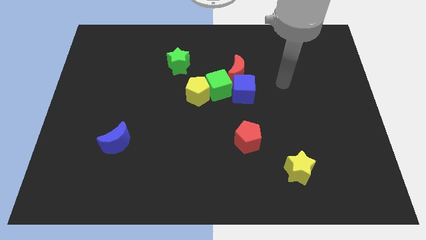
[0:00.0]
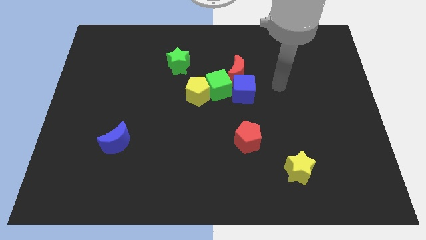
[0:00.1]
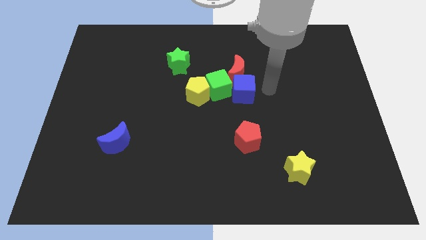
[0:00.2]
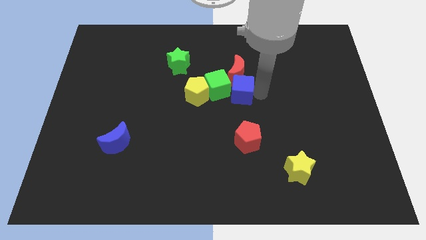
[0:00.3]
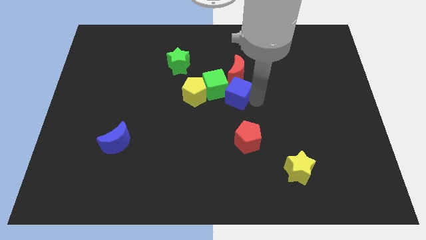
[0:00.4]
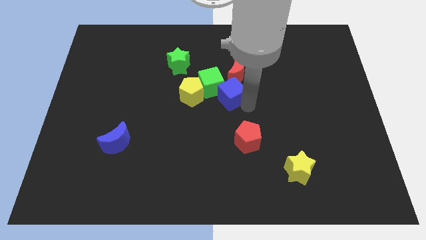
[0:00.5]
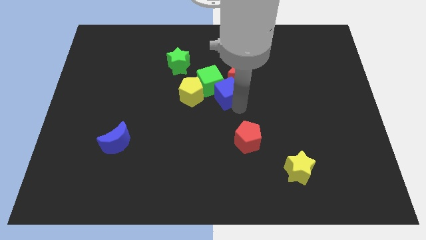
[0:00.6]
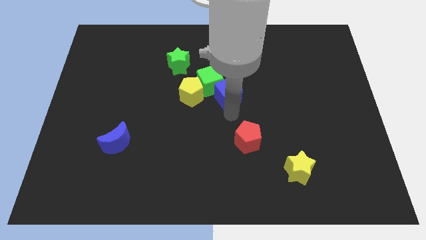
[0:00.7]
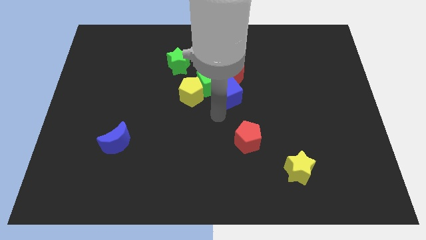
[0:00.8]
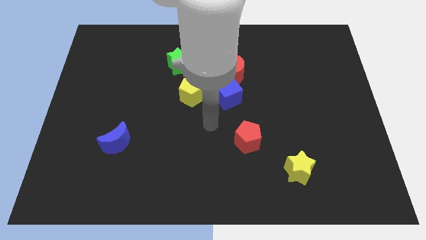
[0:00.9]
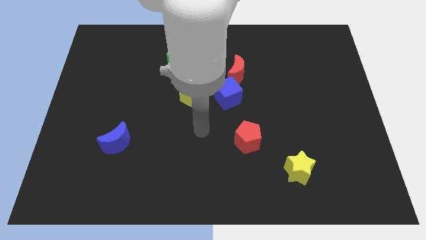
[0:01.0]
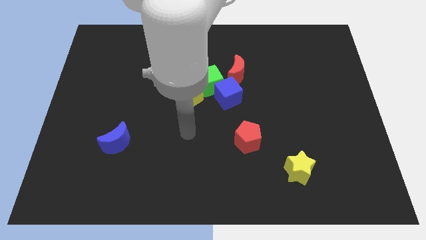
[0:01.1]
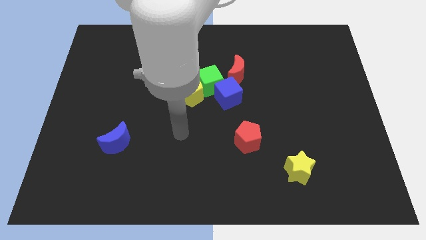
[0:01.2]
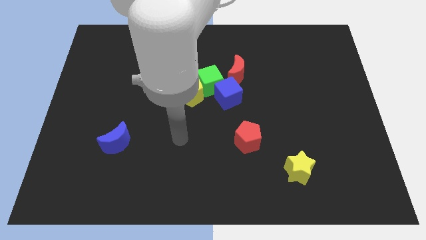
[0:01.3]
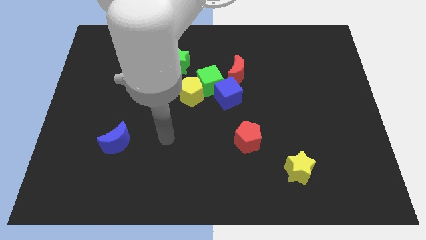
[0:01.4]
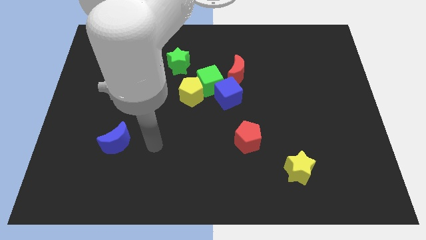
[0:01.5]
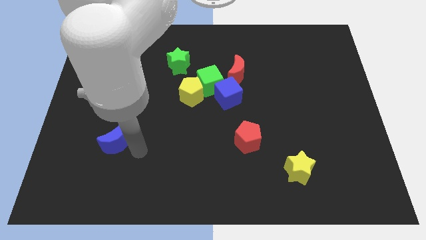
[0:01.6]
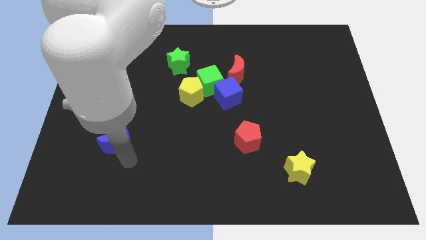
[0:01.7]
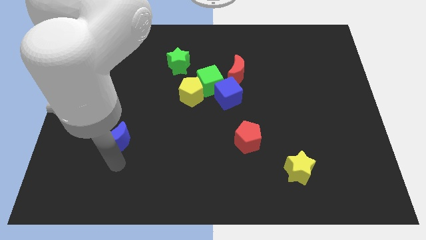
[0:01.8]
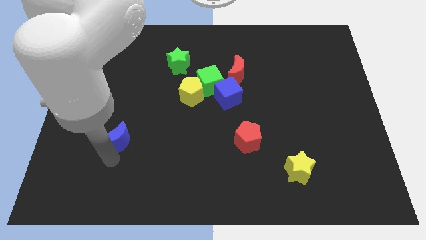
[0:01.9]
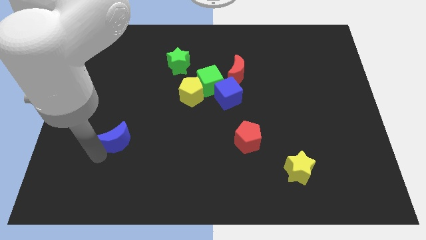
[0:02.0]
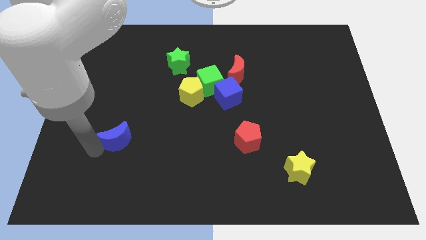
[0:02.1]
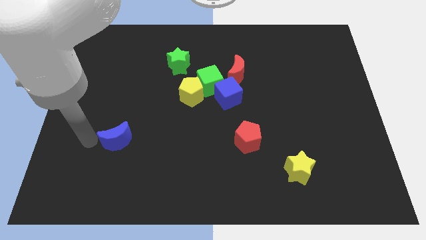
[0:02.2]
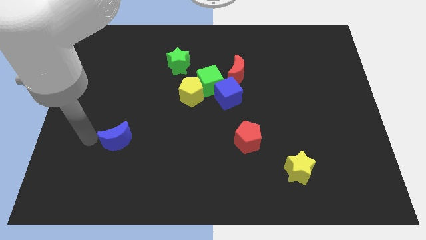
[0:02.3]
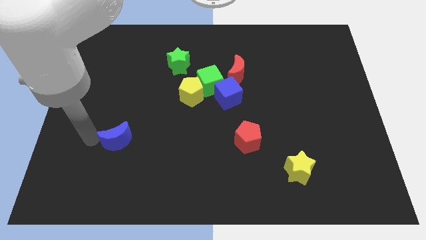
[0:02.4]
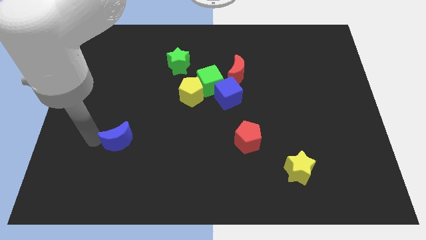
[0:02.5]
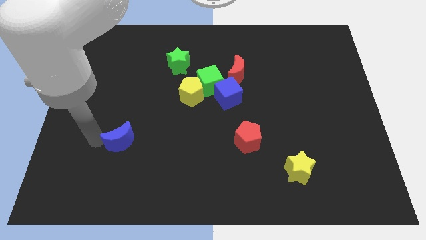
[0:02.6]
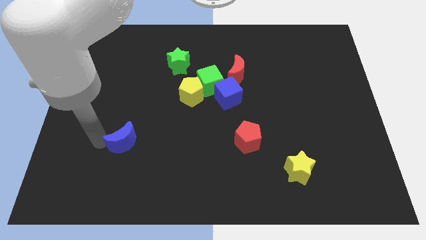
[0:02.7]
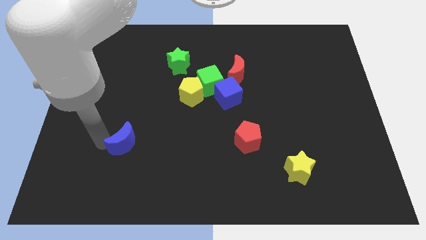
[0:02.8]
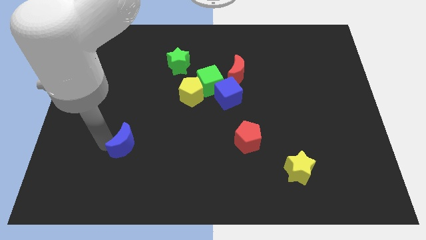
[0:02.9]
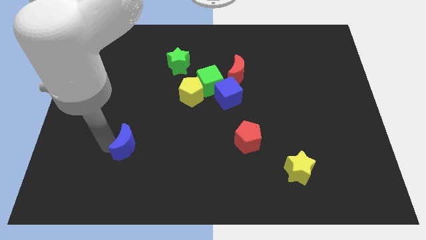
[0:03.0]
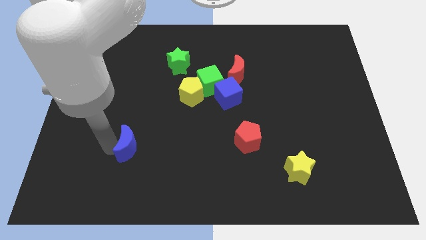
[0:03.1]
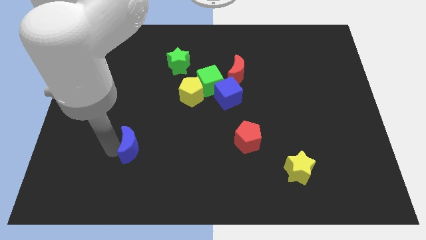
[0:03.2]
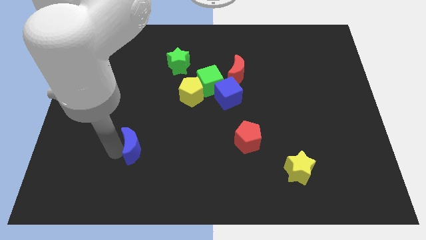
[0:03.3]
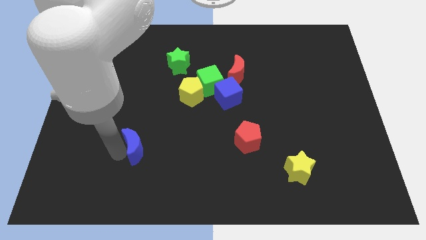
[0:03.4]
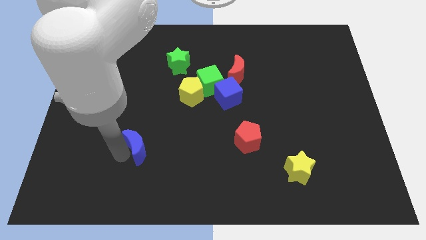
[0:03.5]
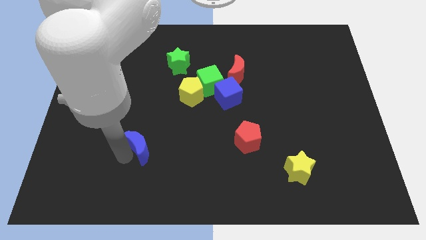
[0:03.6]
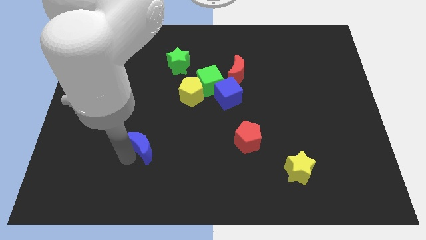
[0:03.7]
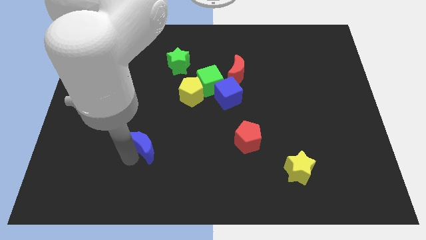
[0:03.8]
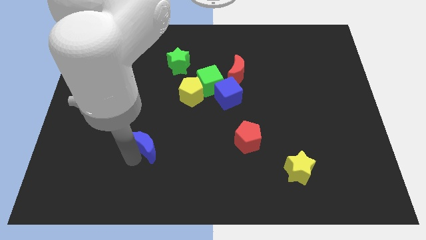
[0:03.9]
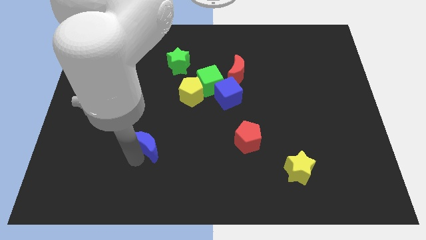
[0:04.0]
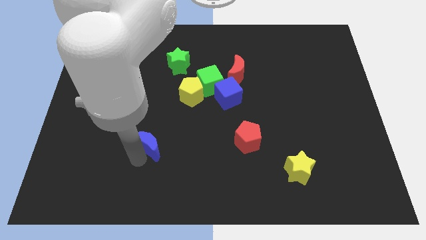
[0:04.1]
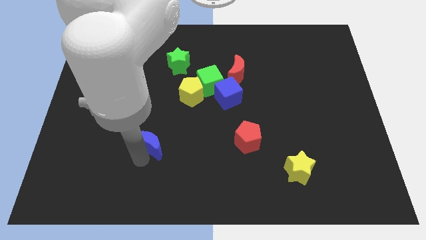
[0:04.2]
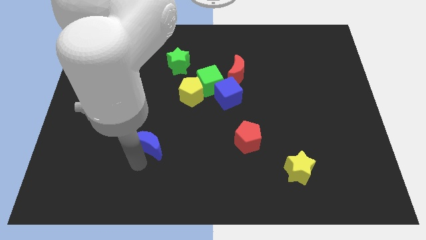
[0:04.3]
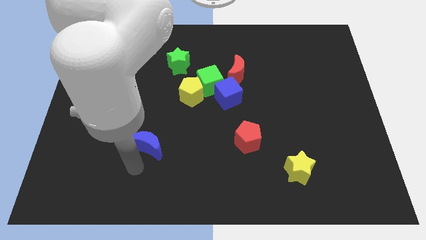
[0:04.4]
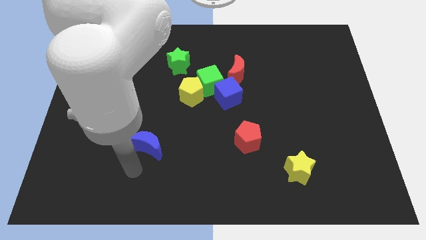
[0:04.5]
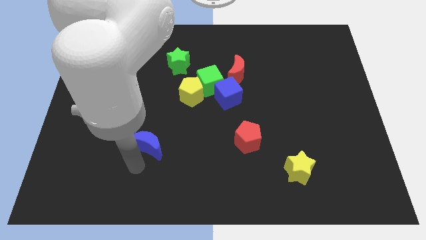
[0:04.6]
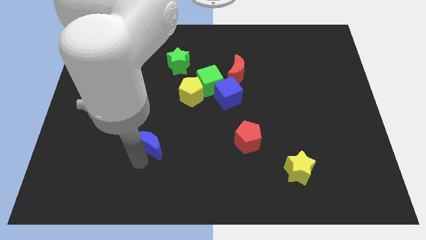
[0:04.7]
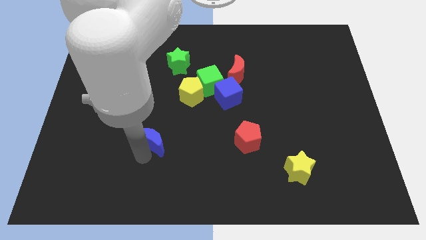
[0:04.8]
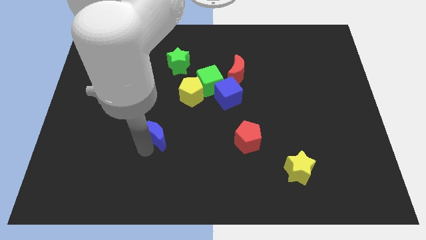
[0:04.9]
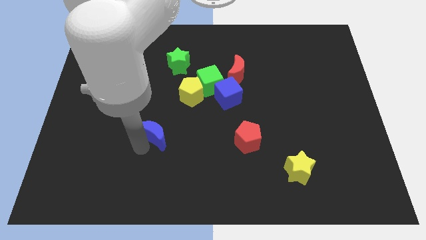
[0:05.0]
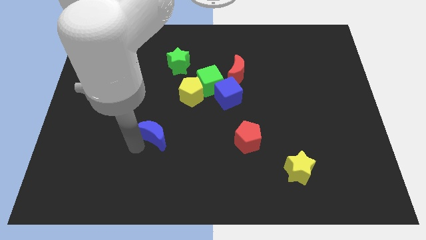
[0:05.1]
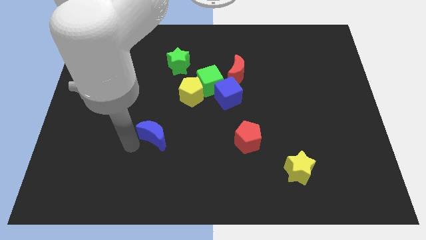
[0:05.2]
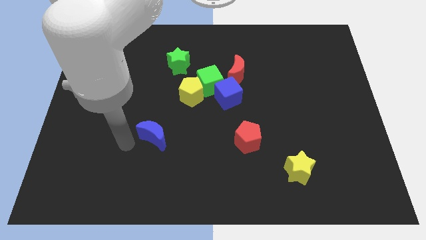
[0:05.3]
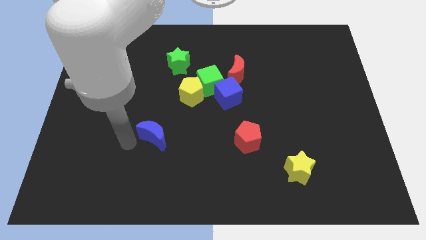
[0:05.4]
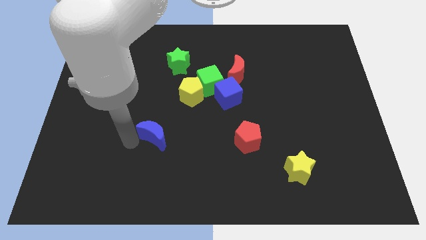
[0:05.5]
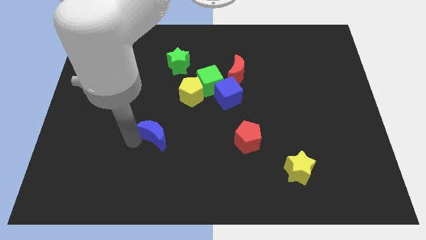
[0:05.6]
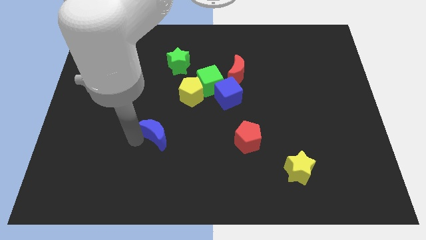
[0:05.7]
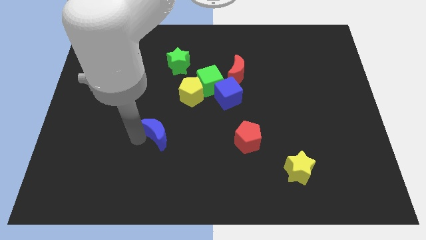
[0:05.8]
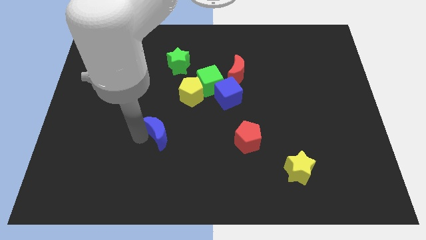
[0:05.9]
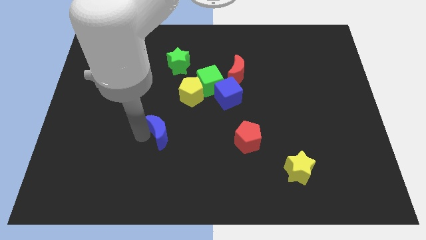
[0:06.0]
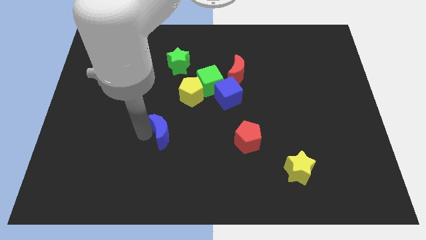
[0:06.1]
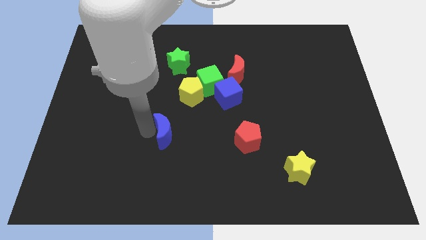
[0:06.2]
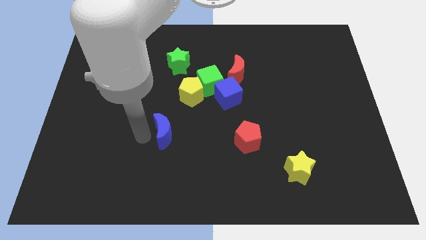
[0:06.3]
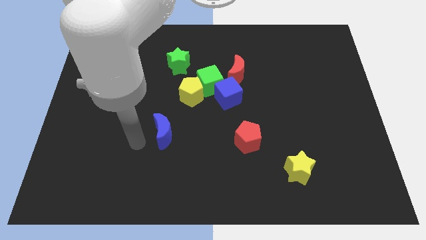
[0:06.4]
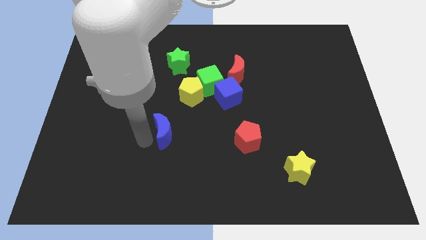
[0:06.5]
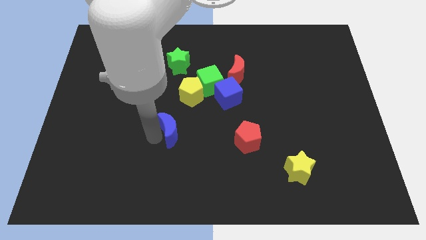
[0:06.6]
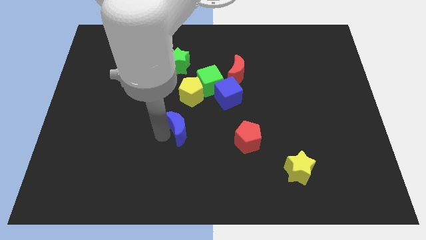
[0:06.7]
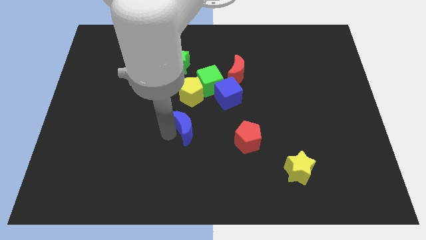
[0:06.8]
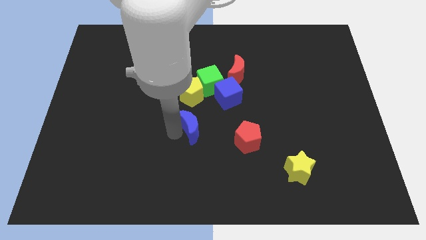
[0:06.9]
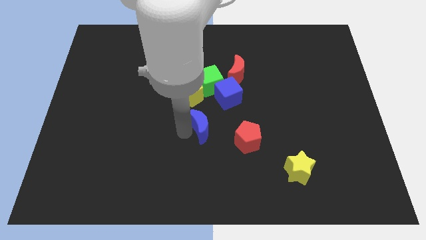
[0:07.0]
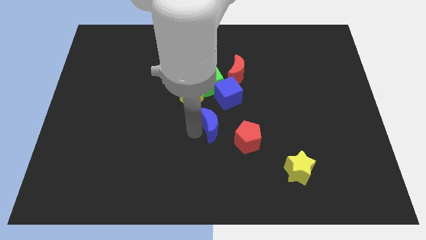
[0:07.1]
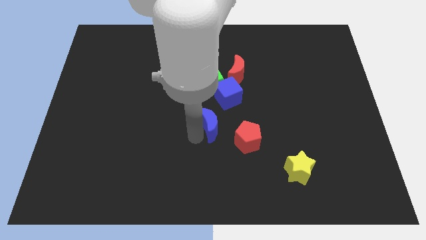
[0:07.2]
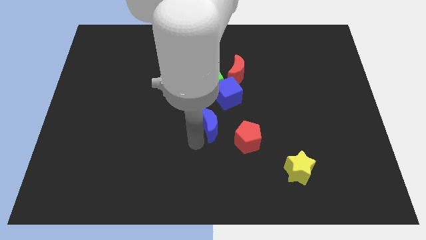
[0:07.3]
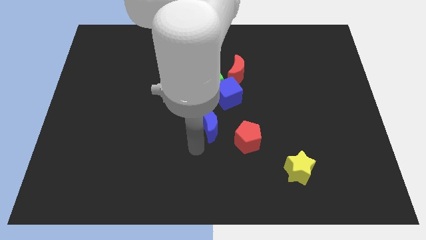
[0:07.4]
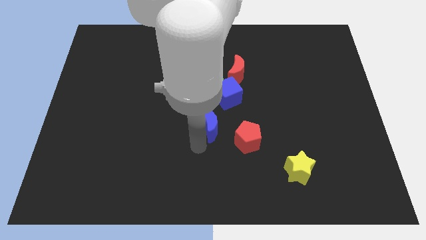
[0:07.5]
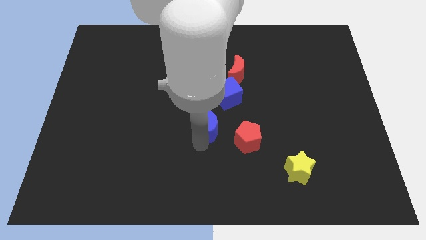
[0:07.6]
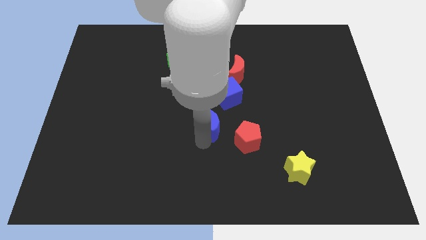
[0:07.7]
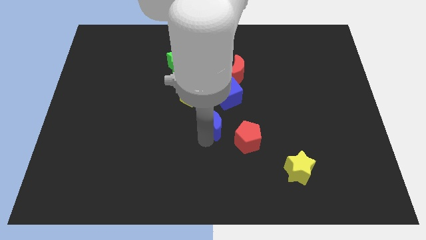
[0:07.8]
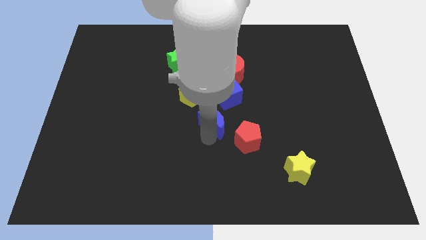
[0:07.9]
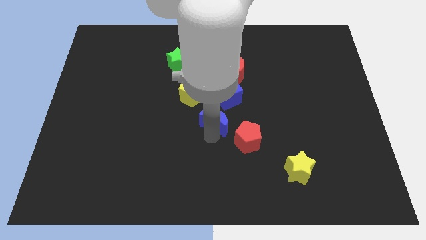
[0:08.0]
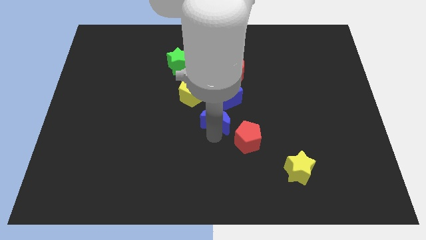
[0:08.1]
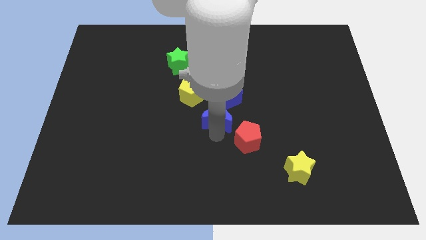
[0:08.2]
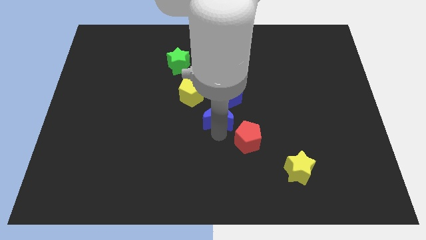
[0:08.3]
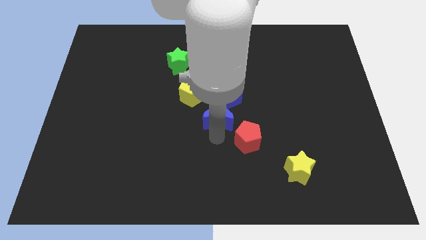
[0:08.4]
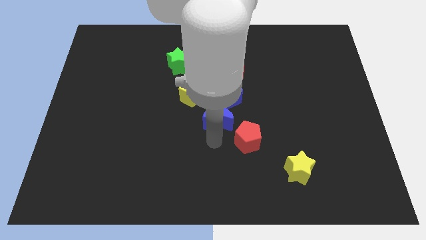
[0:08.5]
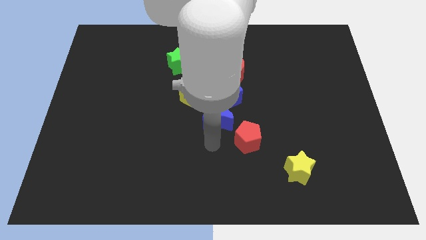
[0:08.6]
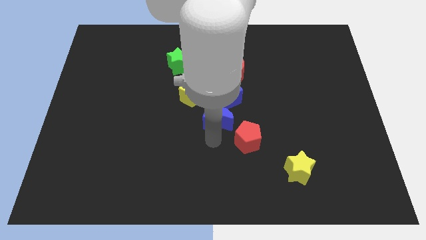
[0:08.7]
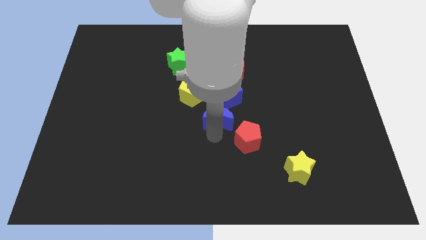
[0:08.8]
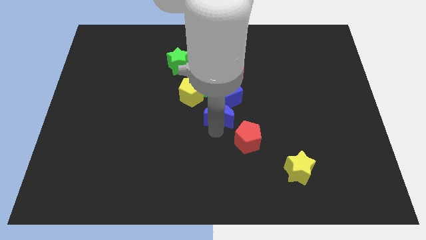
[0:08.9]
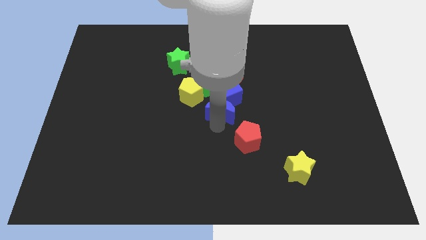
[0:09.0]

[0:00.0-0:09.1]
move the blue moon close to the blue cube
